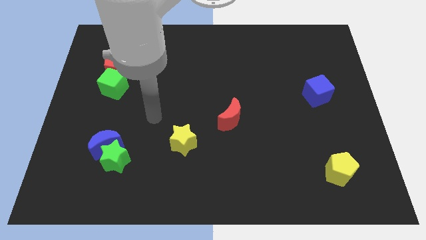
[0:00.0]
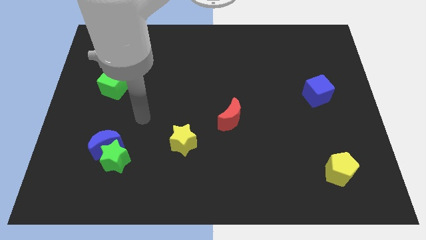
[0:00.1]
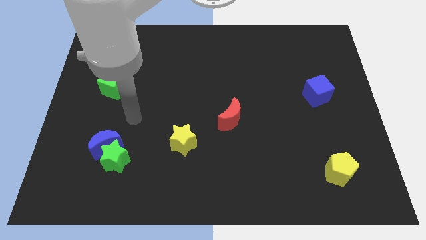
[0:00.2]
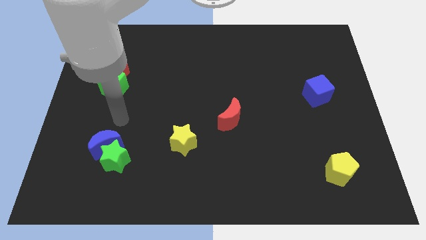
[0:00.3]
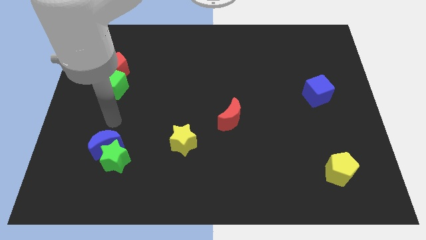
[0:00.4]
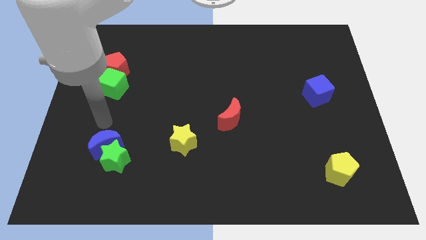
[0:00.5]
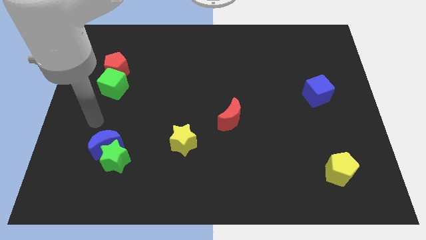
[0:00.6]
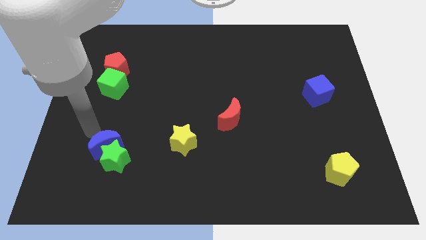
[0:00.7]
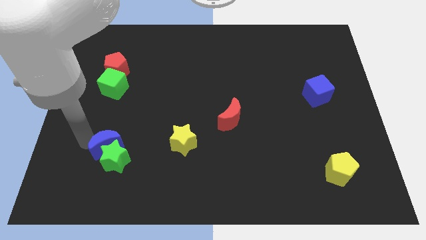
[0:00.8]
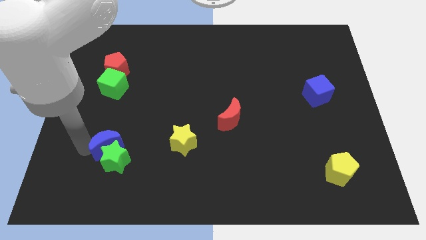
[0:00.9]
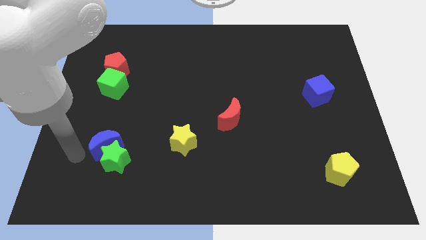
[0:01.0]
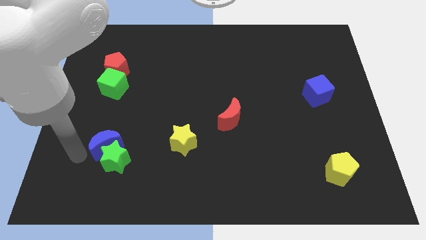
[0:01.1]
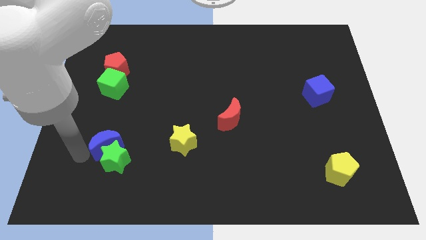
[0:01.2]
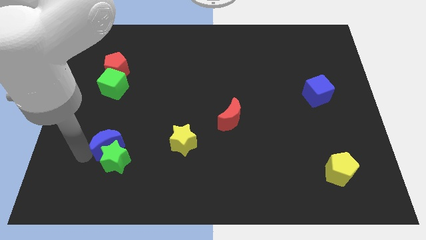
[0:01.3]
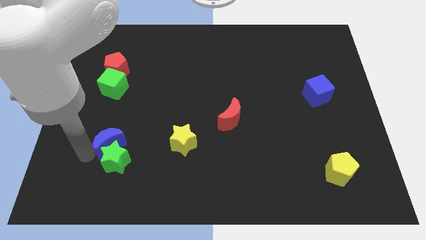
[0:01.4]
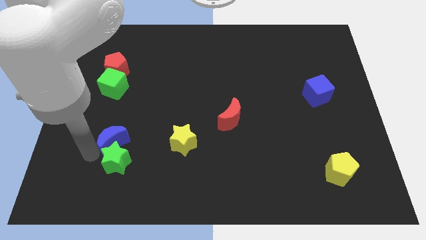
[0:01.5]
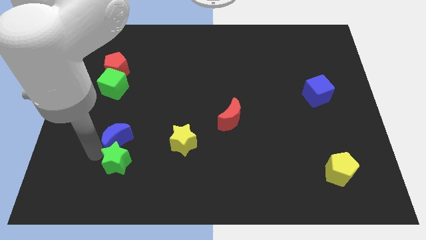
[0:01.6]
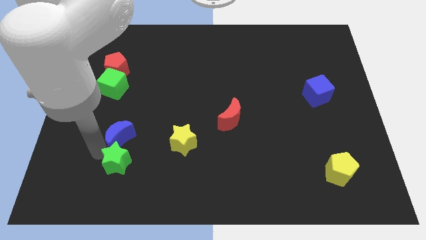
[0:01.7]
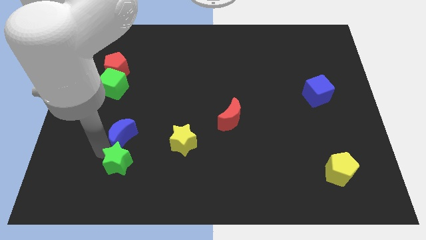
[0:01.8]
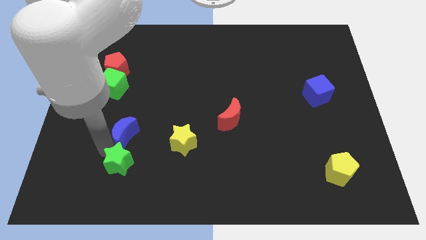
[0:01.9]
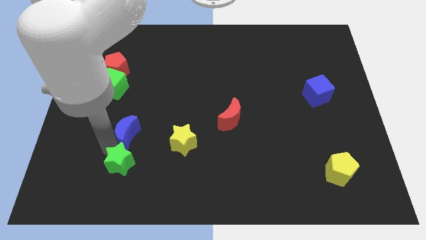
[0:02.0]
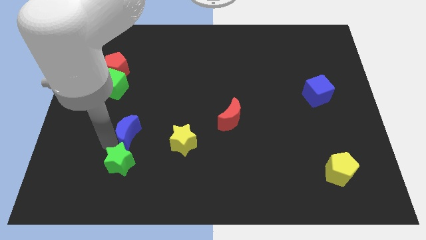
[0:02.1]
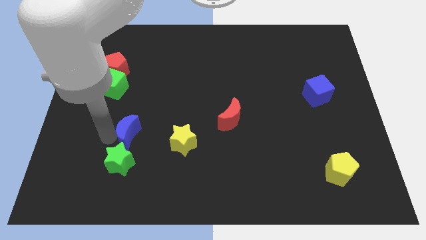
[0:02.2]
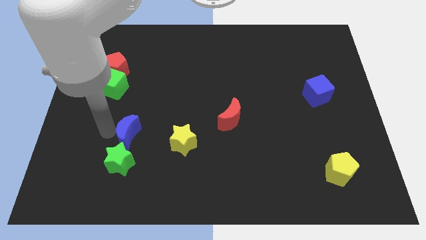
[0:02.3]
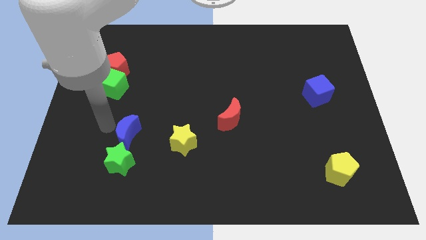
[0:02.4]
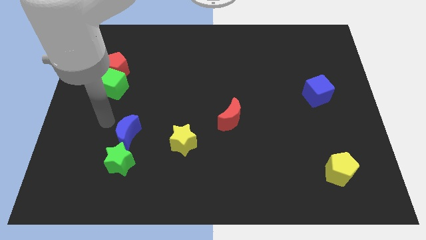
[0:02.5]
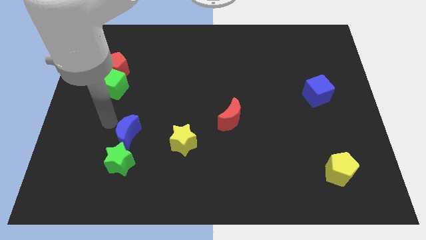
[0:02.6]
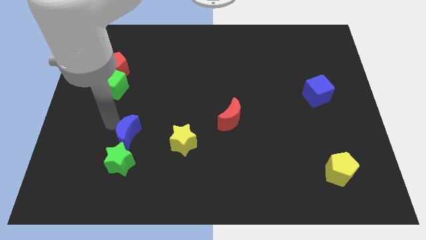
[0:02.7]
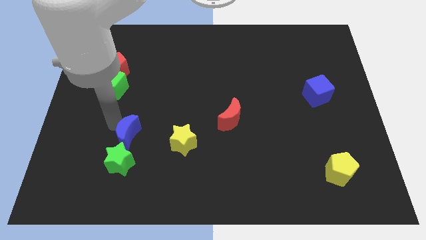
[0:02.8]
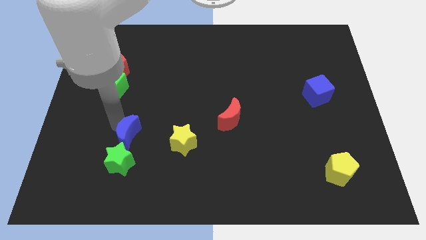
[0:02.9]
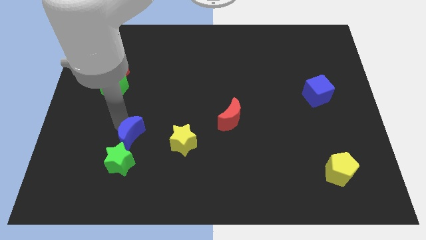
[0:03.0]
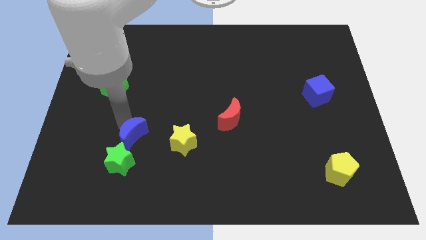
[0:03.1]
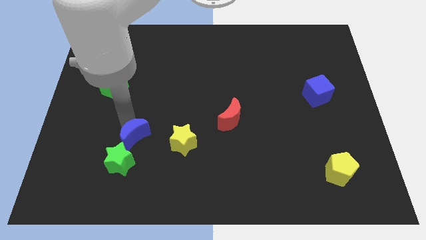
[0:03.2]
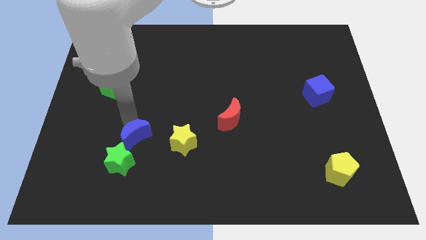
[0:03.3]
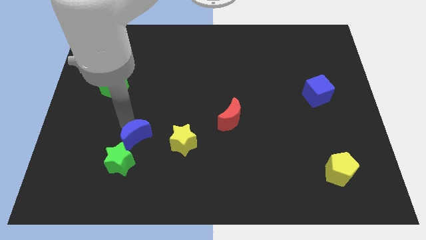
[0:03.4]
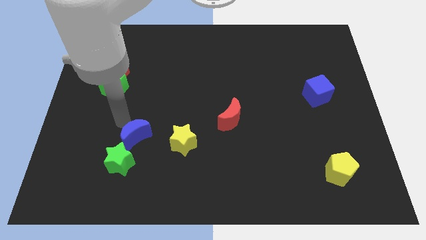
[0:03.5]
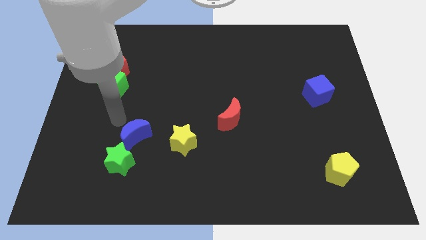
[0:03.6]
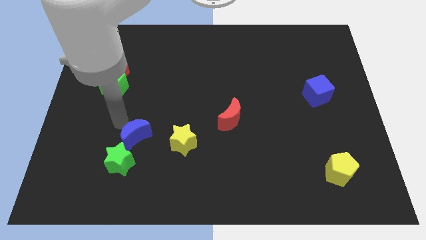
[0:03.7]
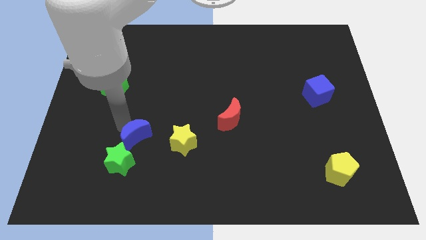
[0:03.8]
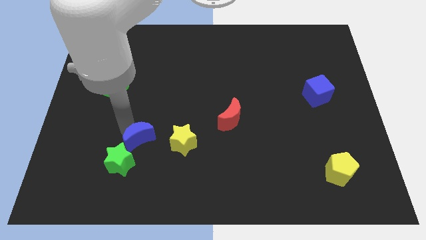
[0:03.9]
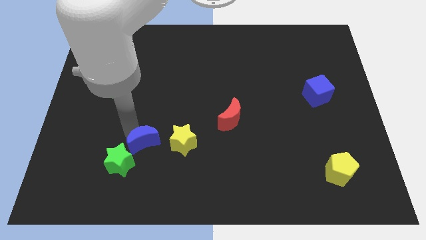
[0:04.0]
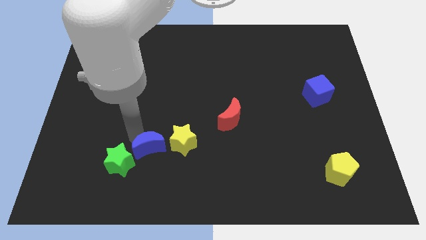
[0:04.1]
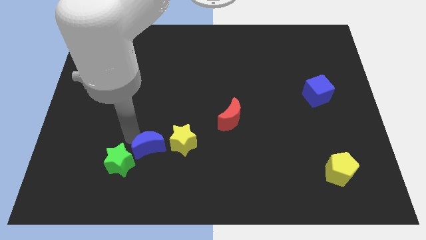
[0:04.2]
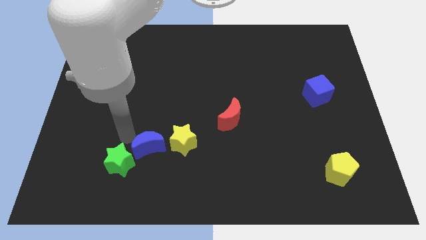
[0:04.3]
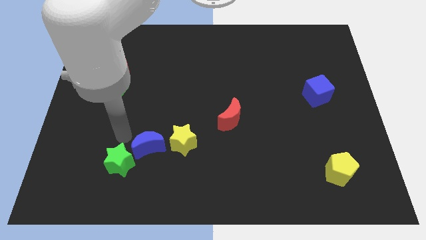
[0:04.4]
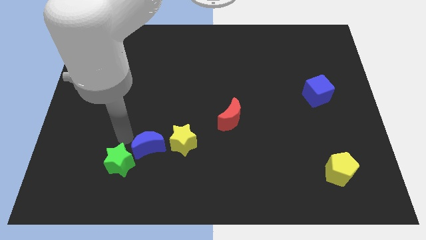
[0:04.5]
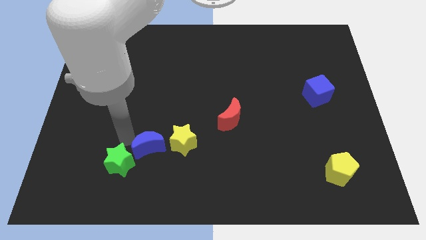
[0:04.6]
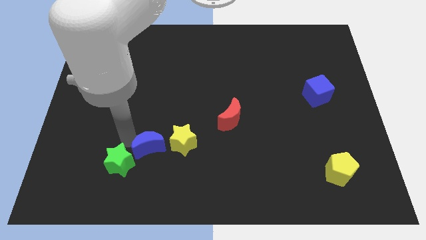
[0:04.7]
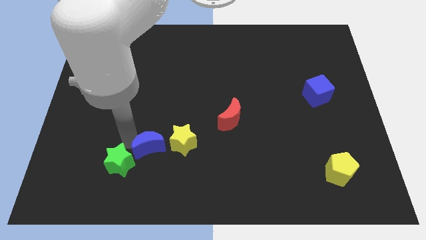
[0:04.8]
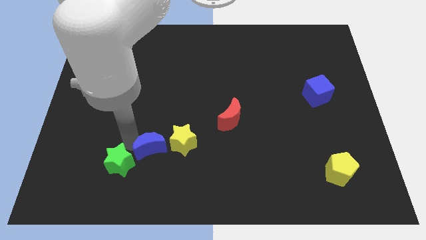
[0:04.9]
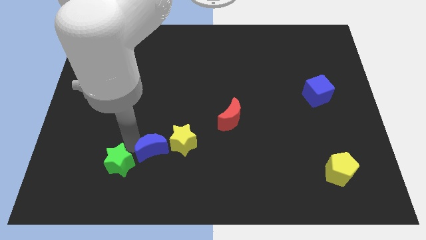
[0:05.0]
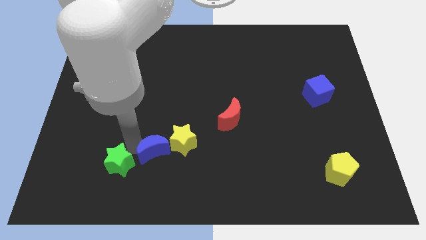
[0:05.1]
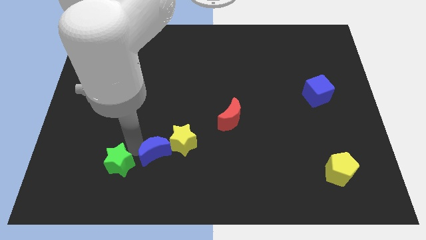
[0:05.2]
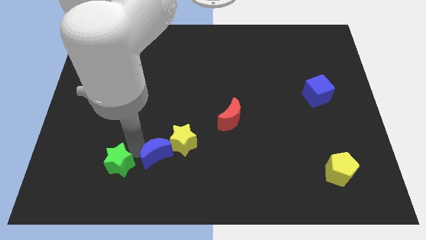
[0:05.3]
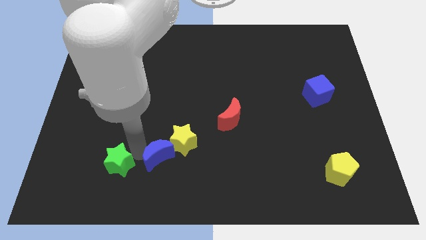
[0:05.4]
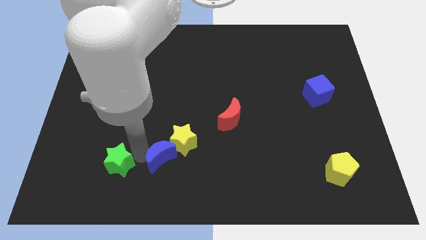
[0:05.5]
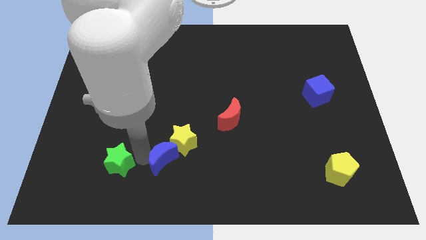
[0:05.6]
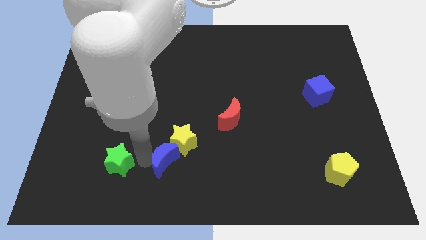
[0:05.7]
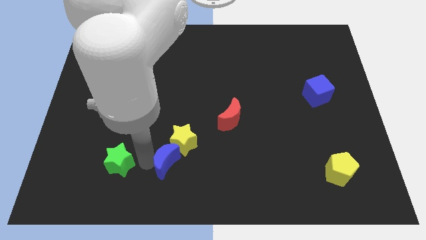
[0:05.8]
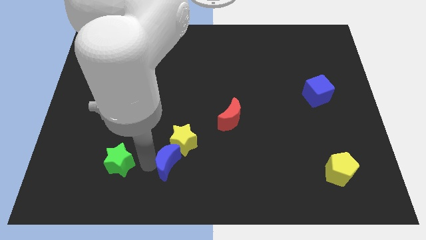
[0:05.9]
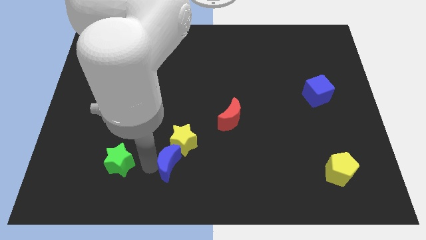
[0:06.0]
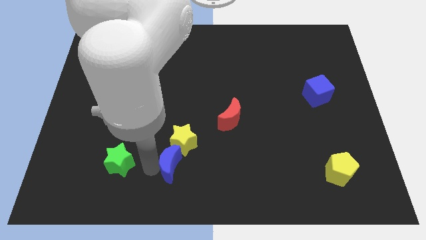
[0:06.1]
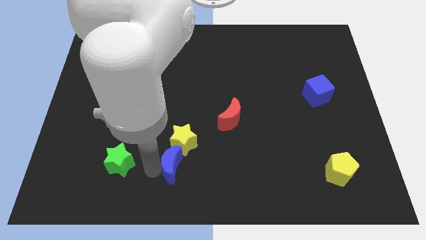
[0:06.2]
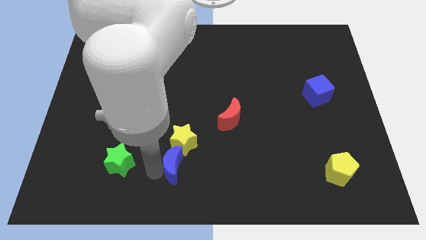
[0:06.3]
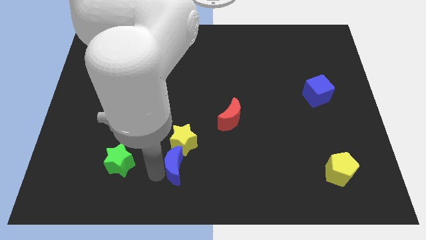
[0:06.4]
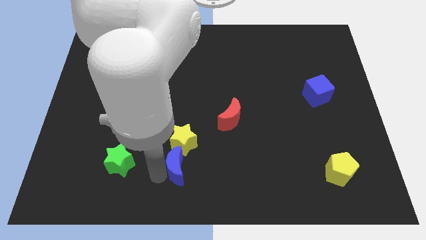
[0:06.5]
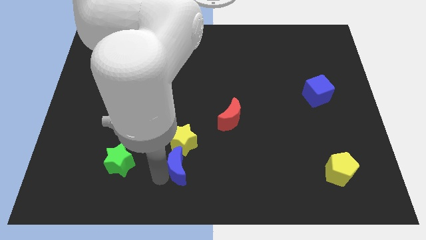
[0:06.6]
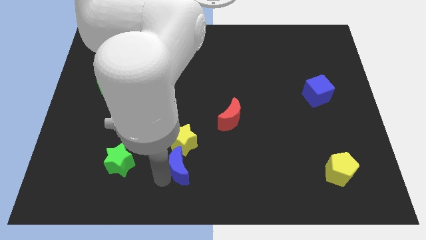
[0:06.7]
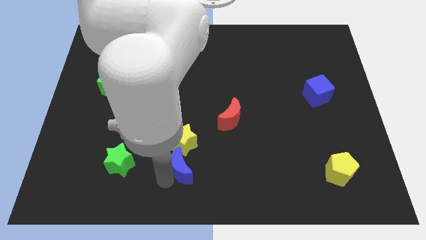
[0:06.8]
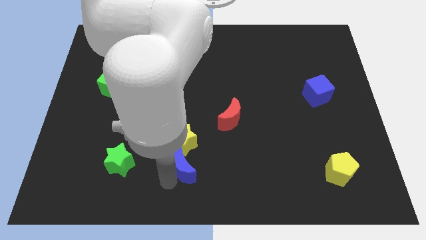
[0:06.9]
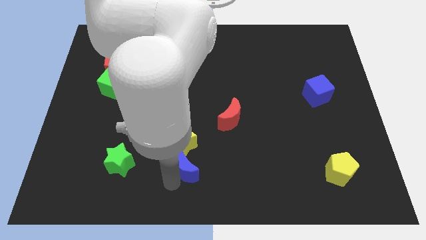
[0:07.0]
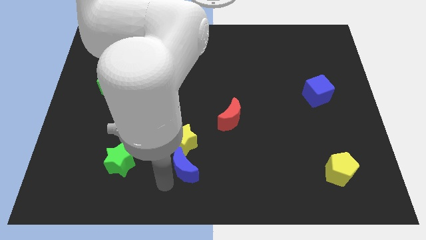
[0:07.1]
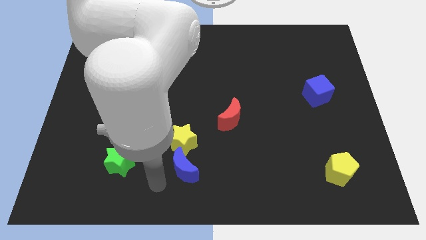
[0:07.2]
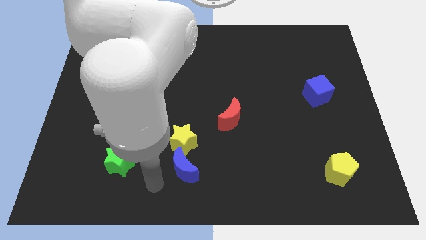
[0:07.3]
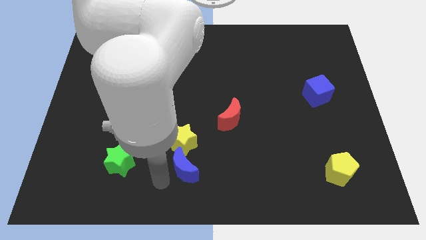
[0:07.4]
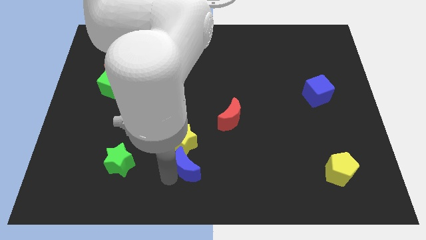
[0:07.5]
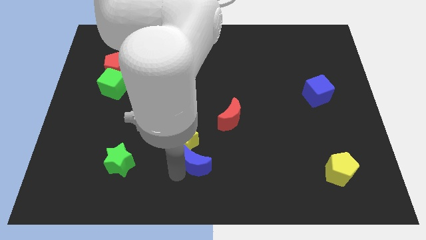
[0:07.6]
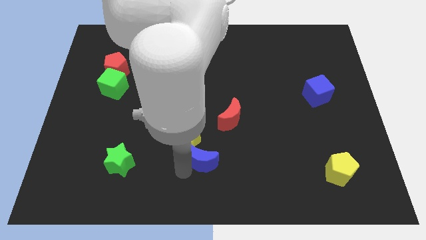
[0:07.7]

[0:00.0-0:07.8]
move the blue moon right

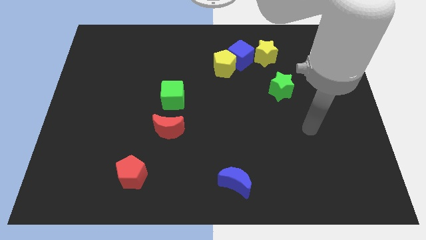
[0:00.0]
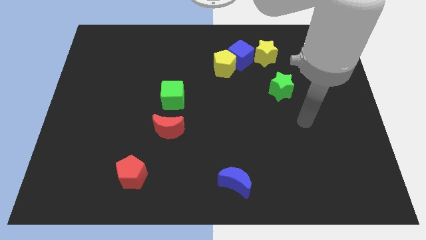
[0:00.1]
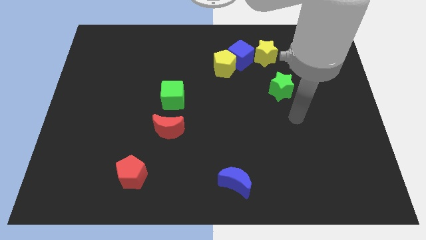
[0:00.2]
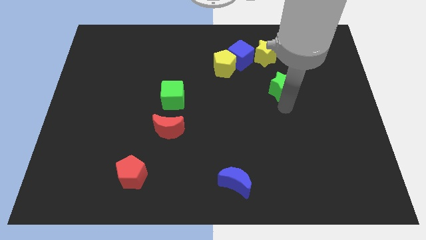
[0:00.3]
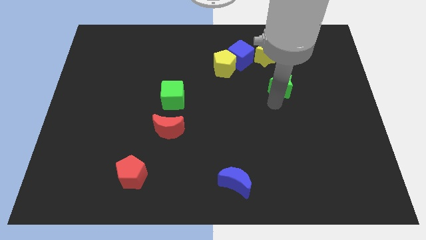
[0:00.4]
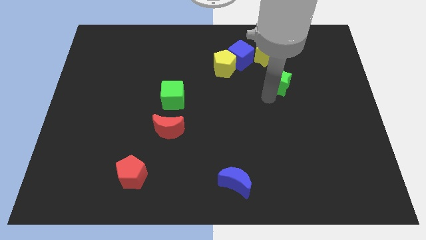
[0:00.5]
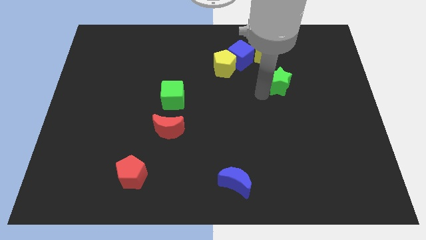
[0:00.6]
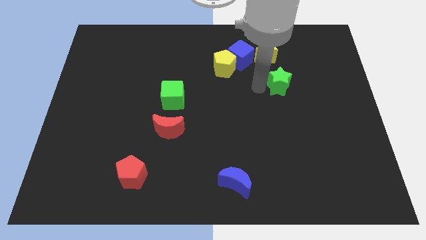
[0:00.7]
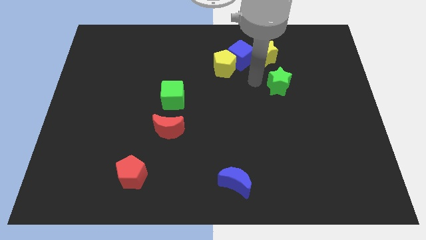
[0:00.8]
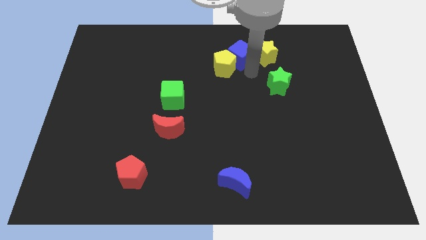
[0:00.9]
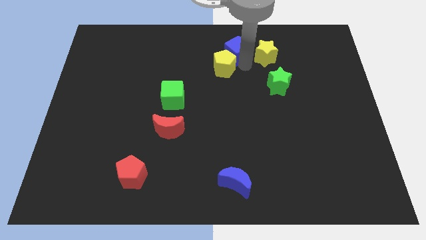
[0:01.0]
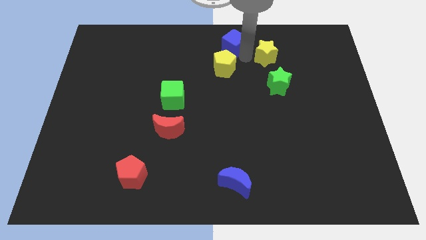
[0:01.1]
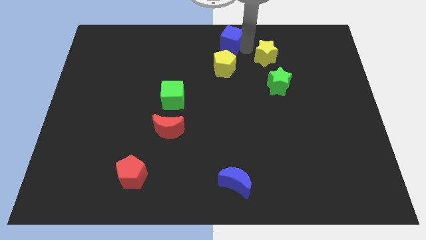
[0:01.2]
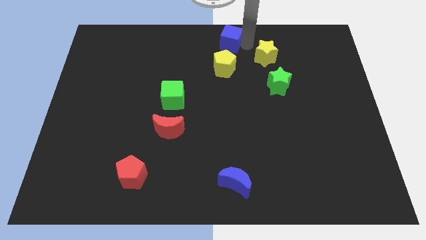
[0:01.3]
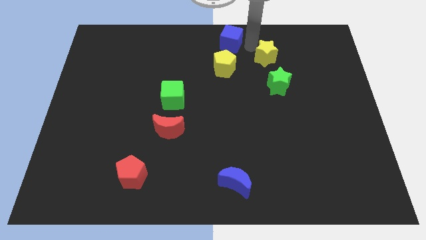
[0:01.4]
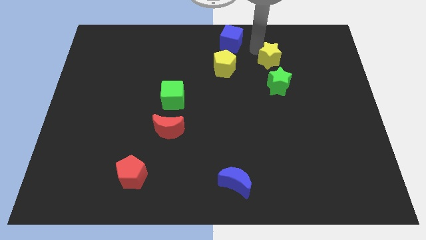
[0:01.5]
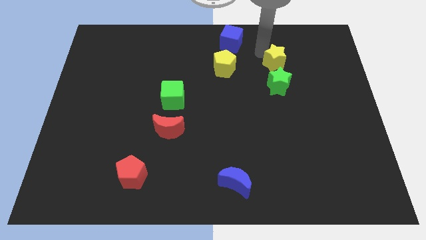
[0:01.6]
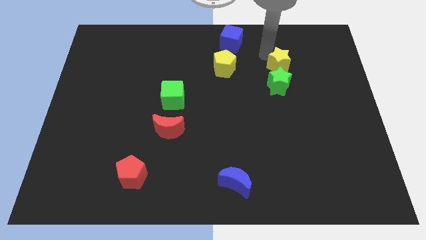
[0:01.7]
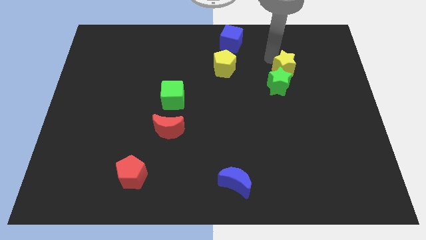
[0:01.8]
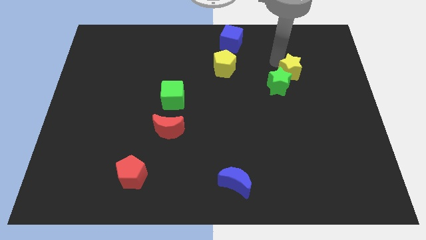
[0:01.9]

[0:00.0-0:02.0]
move the yellow star down and right diagonally a little
